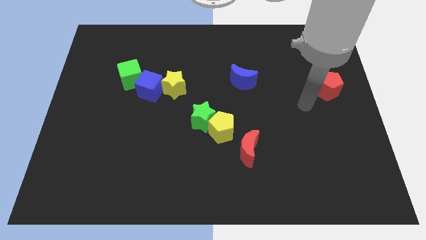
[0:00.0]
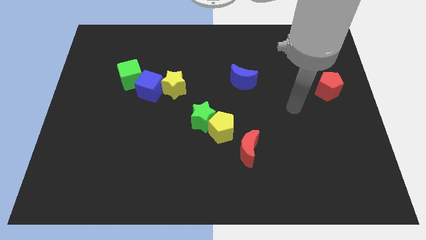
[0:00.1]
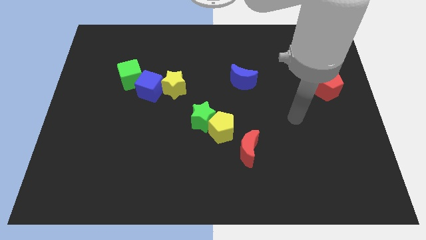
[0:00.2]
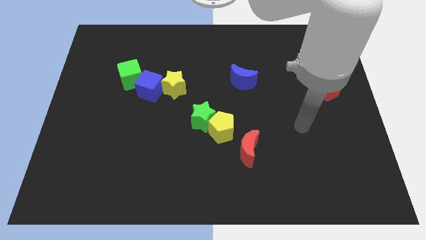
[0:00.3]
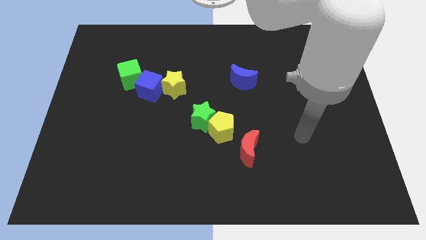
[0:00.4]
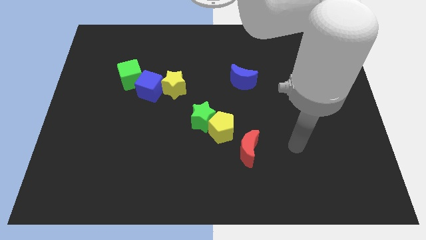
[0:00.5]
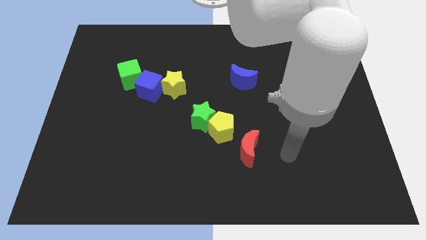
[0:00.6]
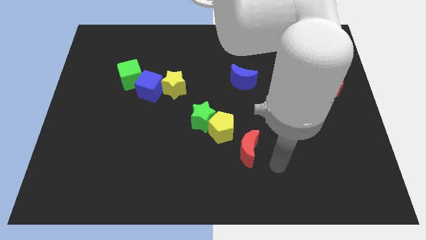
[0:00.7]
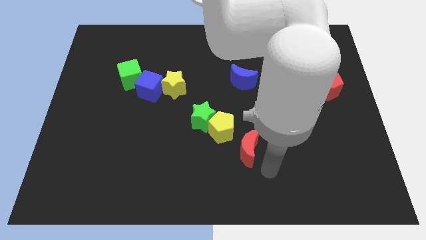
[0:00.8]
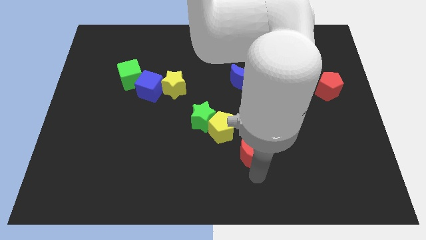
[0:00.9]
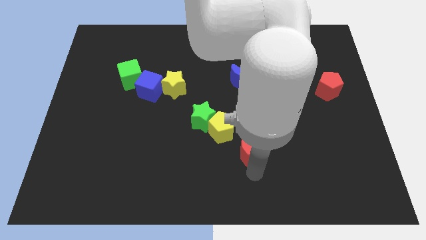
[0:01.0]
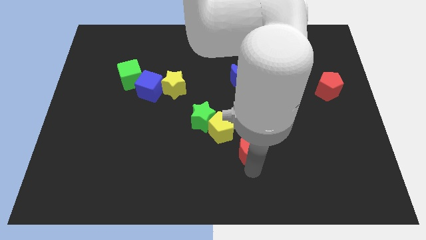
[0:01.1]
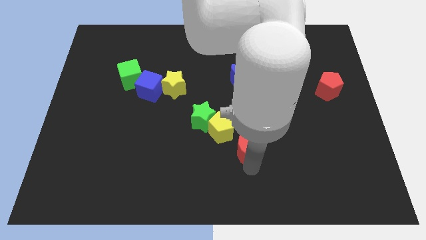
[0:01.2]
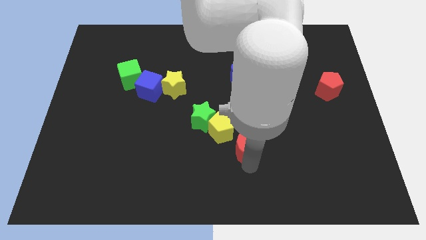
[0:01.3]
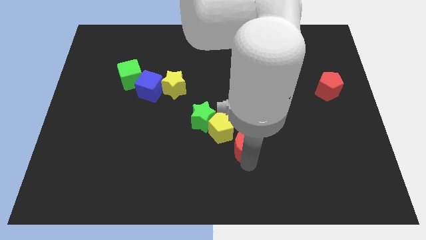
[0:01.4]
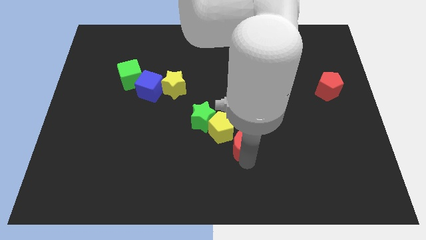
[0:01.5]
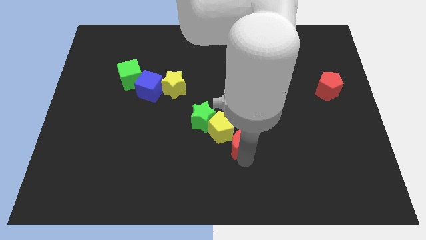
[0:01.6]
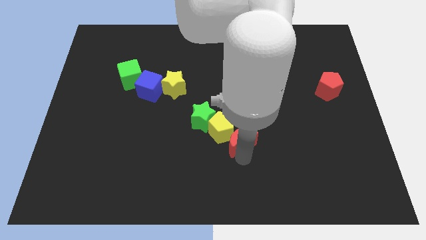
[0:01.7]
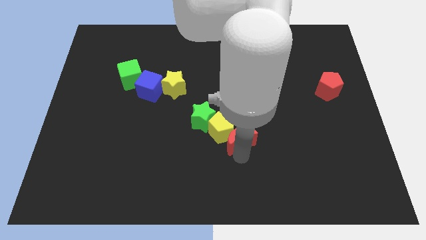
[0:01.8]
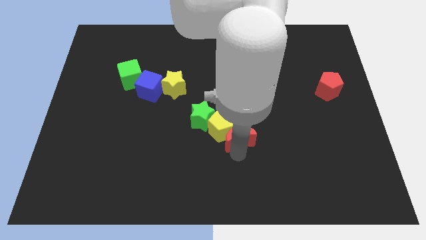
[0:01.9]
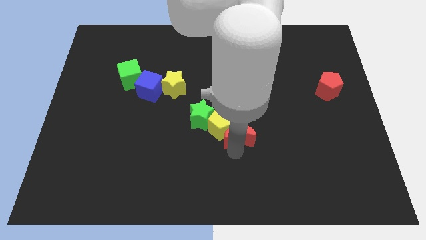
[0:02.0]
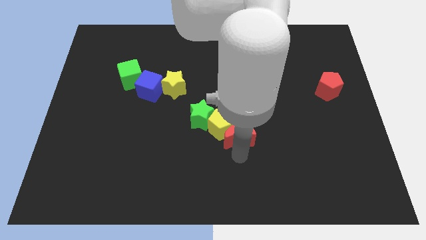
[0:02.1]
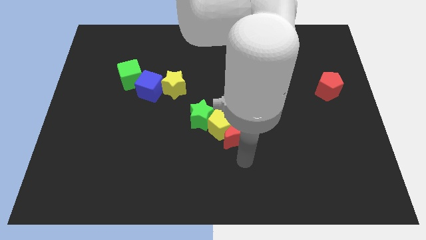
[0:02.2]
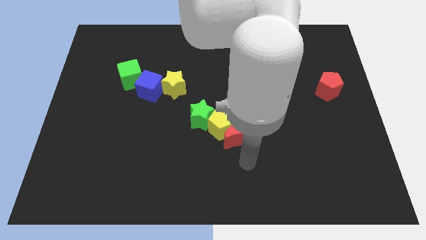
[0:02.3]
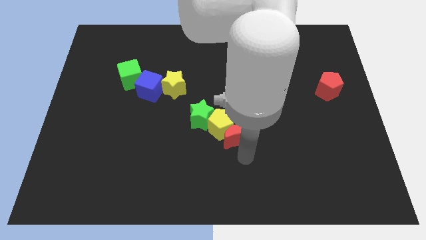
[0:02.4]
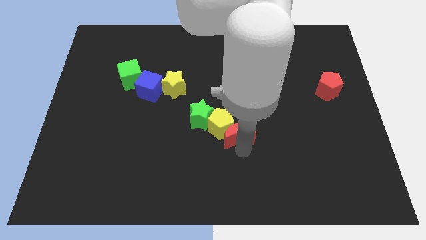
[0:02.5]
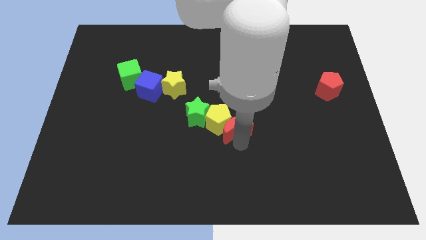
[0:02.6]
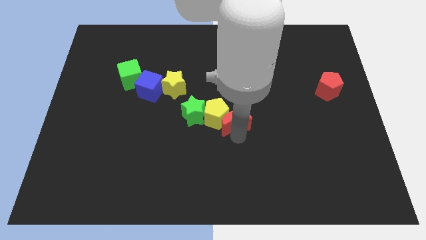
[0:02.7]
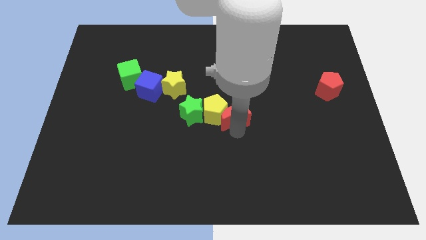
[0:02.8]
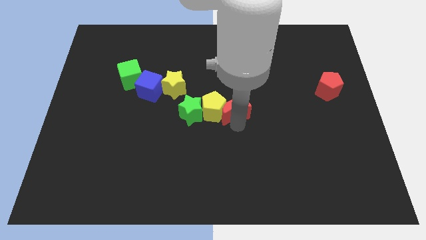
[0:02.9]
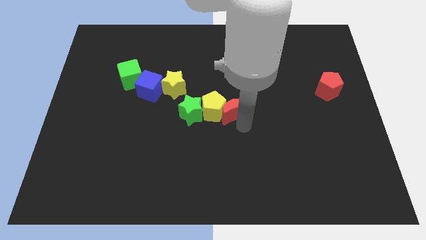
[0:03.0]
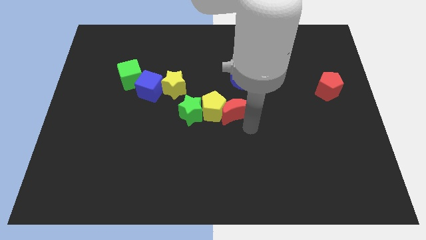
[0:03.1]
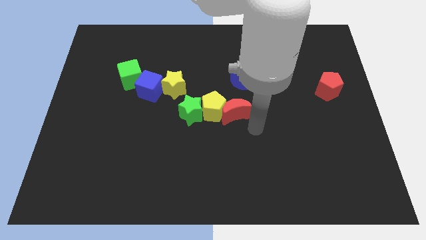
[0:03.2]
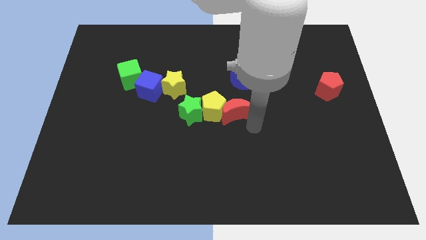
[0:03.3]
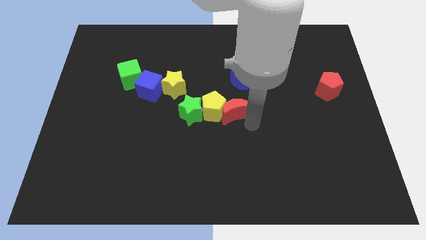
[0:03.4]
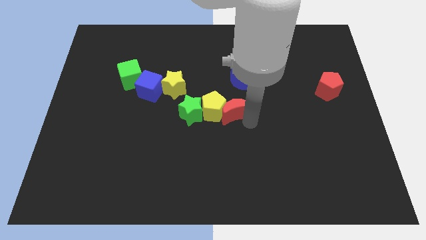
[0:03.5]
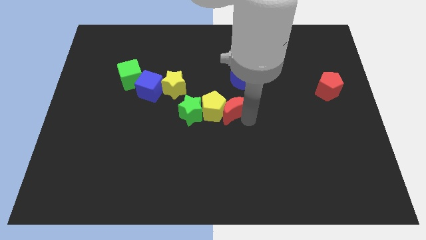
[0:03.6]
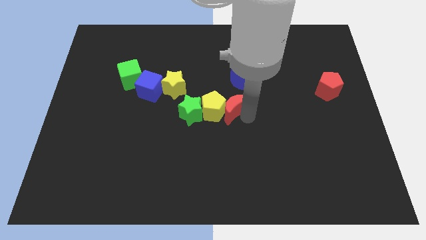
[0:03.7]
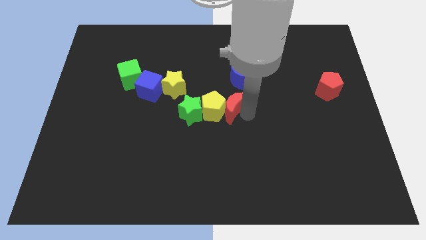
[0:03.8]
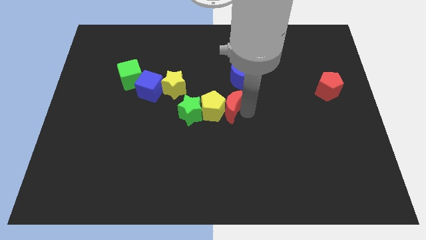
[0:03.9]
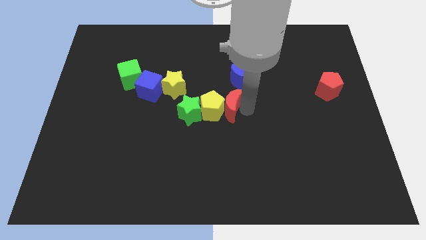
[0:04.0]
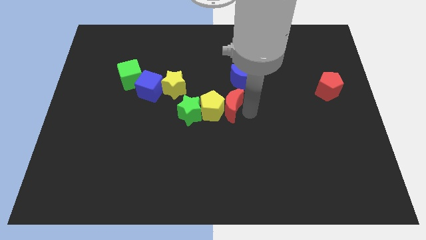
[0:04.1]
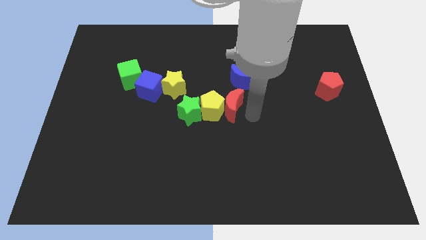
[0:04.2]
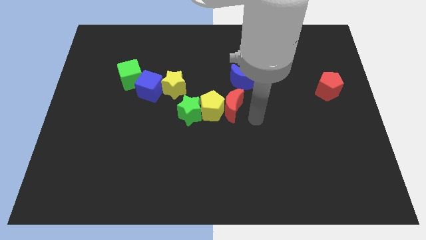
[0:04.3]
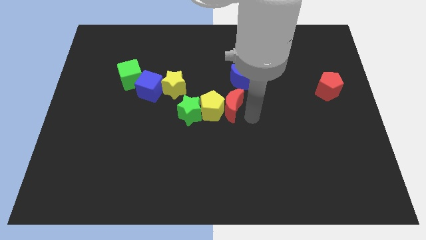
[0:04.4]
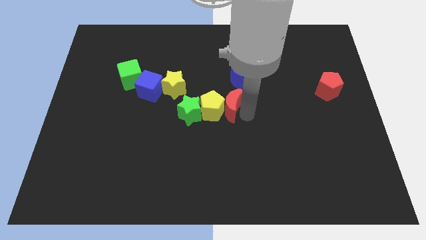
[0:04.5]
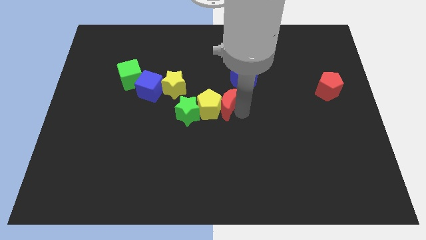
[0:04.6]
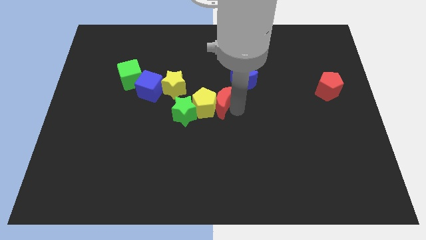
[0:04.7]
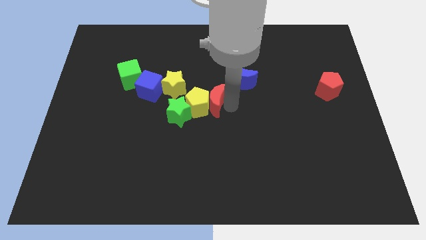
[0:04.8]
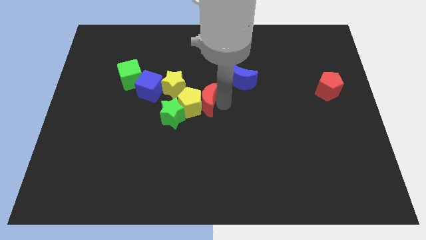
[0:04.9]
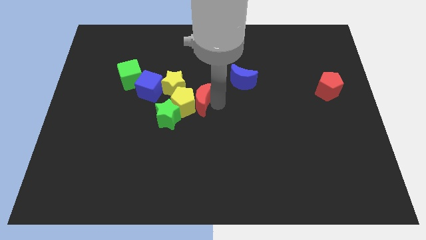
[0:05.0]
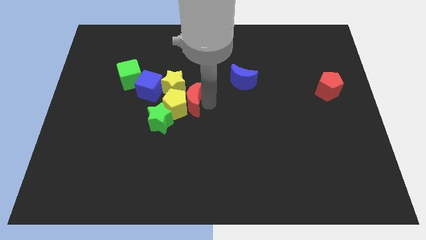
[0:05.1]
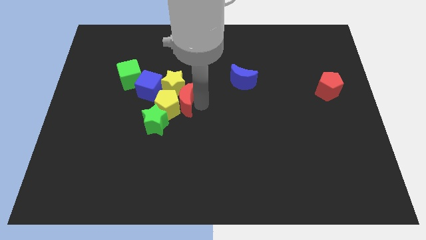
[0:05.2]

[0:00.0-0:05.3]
move the red moon towards the yellow star

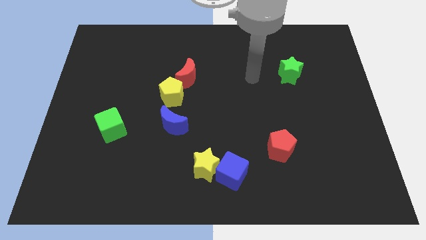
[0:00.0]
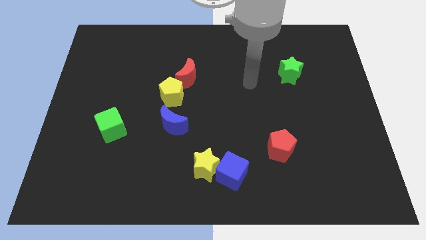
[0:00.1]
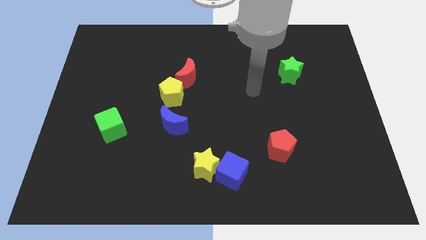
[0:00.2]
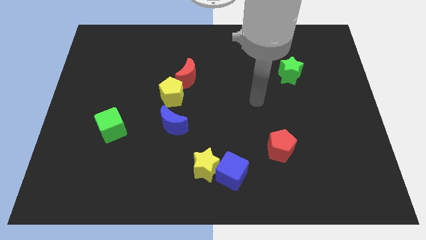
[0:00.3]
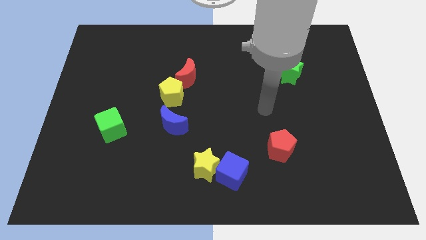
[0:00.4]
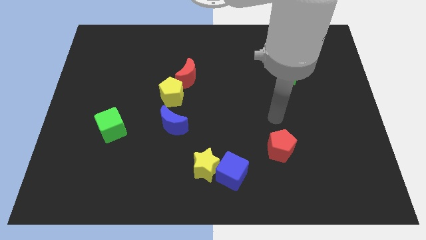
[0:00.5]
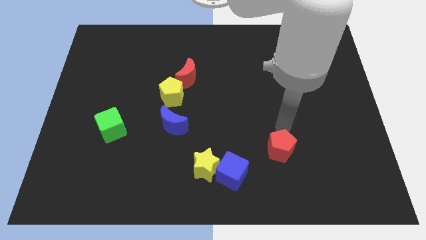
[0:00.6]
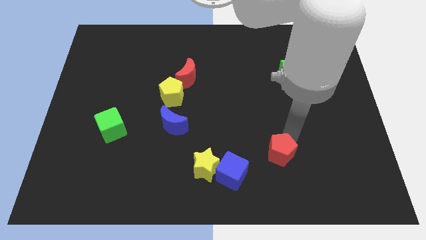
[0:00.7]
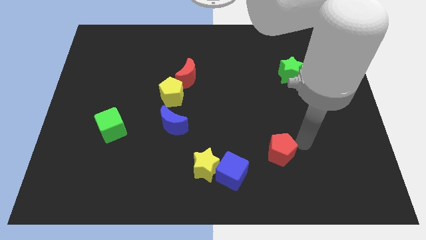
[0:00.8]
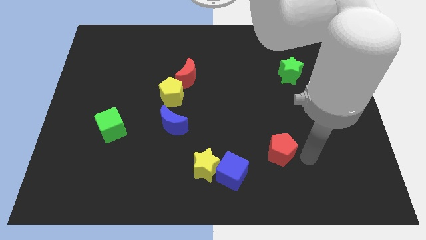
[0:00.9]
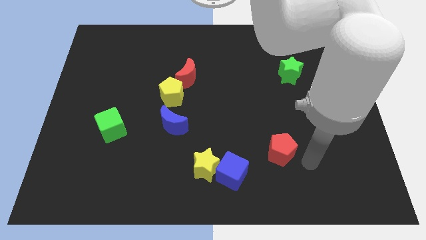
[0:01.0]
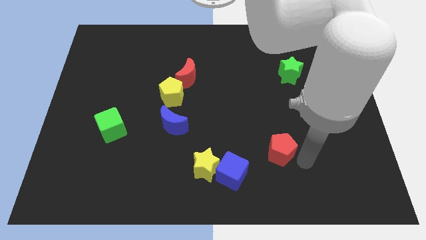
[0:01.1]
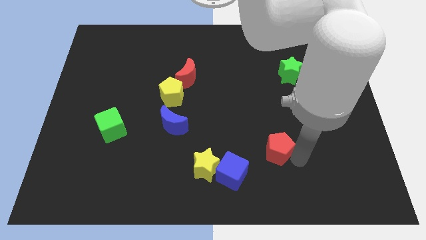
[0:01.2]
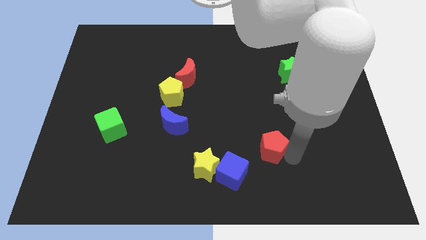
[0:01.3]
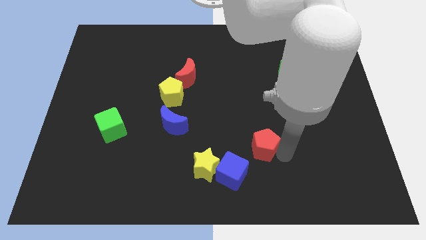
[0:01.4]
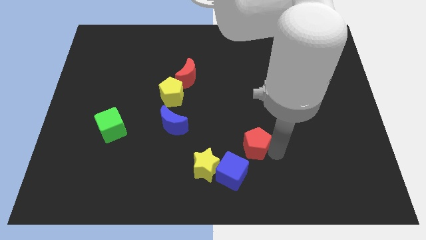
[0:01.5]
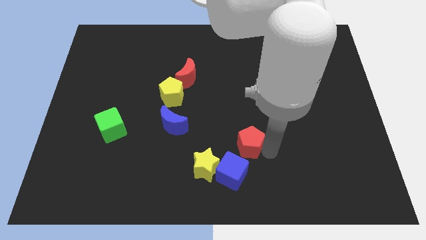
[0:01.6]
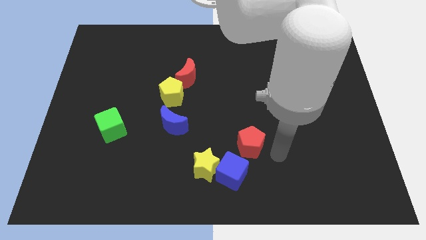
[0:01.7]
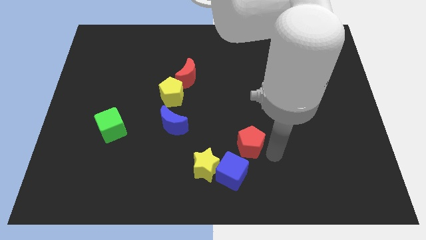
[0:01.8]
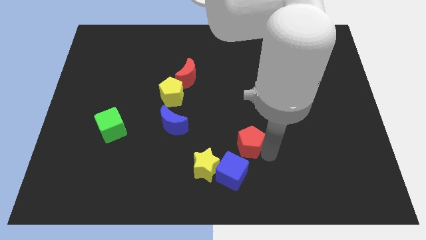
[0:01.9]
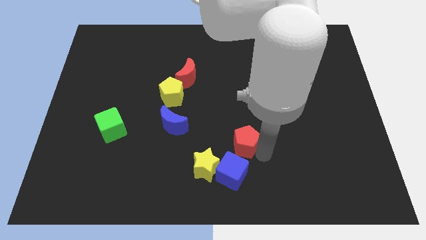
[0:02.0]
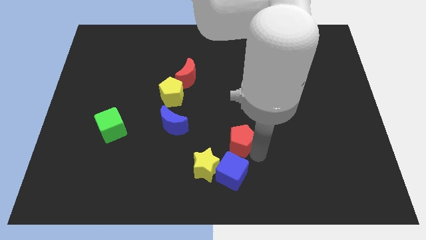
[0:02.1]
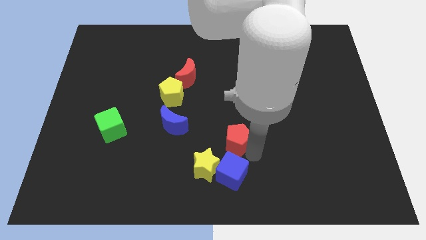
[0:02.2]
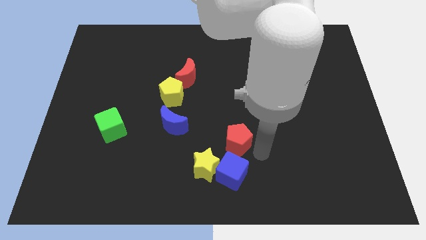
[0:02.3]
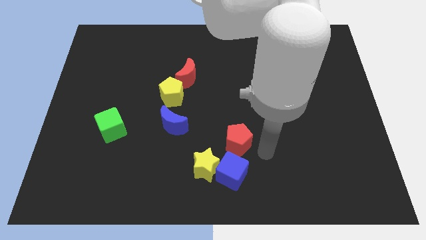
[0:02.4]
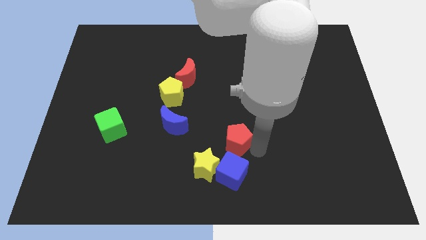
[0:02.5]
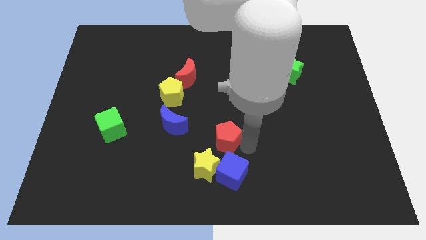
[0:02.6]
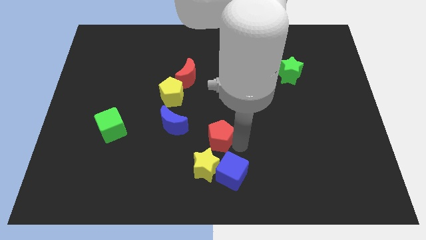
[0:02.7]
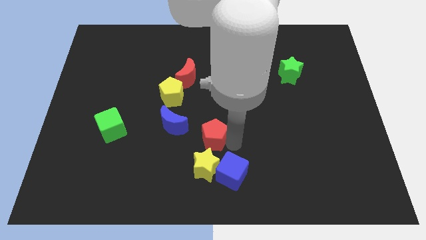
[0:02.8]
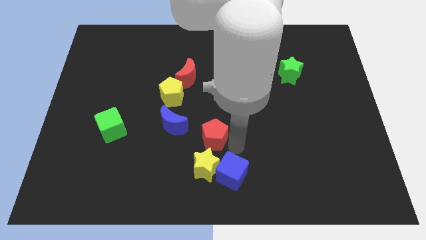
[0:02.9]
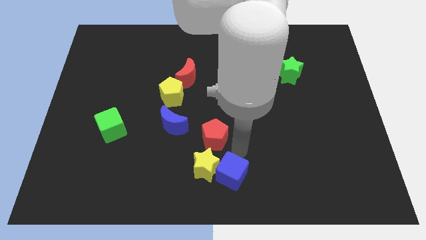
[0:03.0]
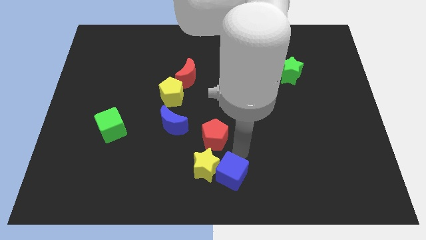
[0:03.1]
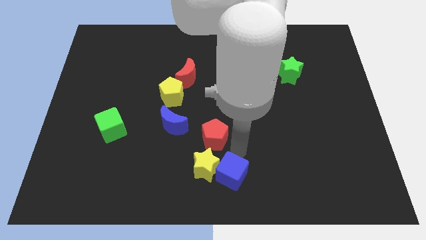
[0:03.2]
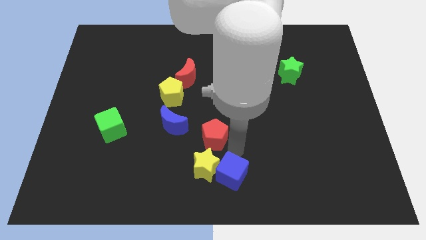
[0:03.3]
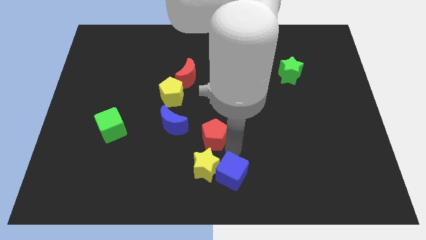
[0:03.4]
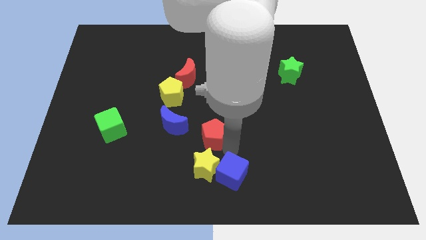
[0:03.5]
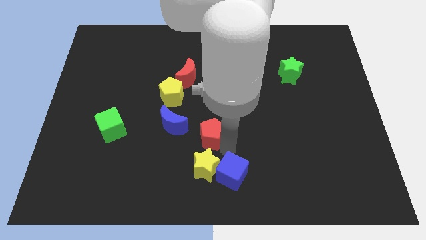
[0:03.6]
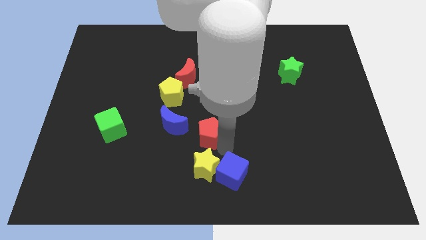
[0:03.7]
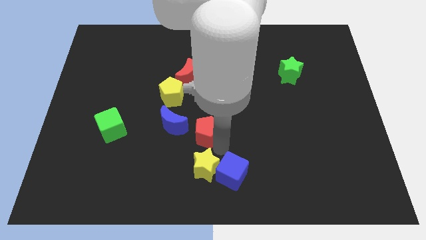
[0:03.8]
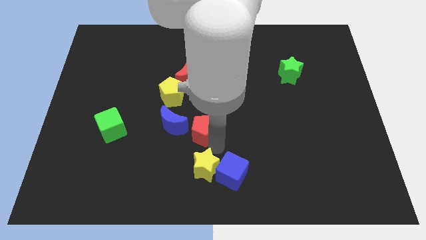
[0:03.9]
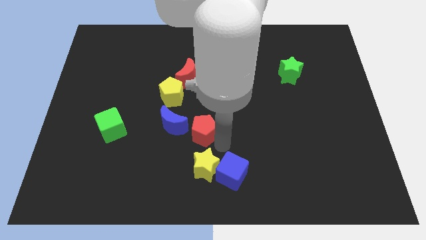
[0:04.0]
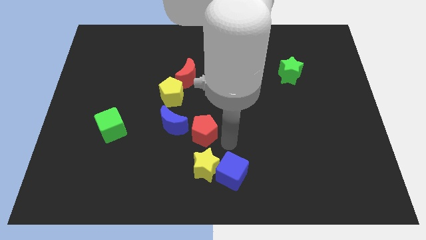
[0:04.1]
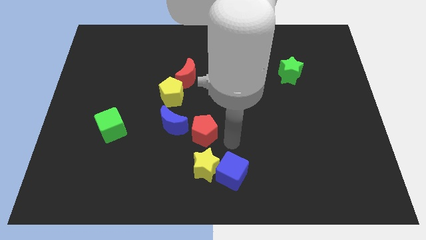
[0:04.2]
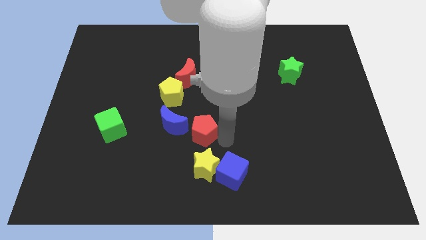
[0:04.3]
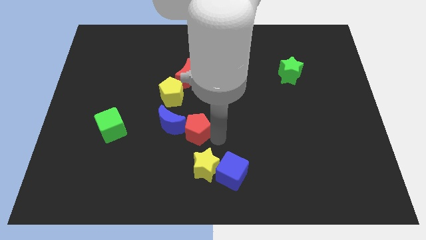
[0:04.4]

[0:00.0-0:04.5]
move the red pentagon close to the blue moon
